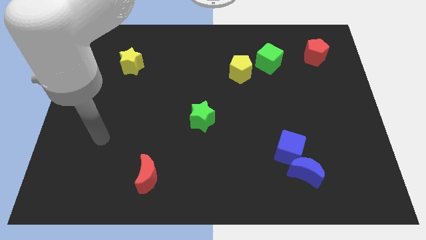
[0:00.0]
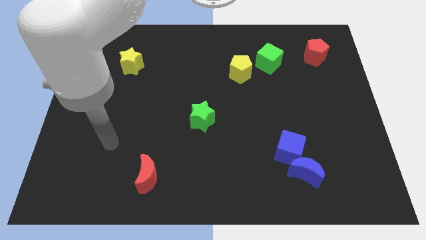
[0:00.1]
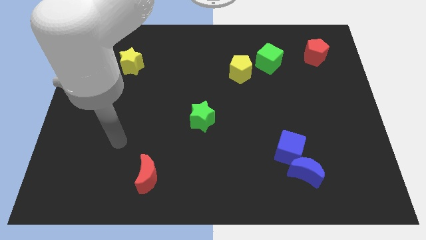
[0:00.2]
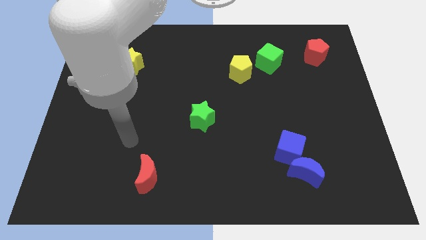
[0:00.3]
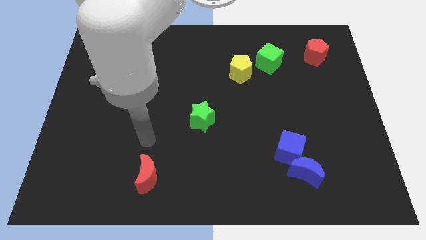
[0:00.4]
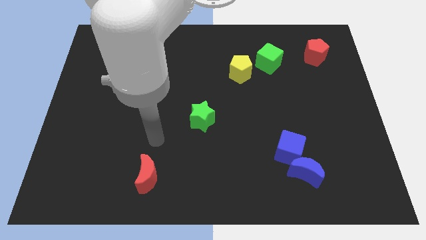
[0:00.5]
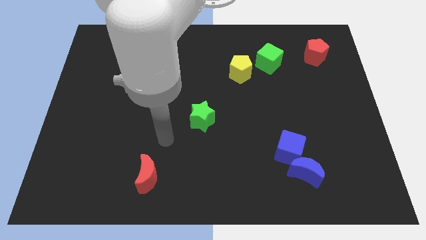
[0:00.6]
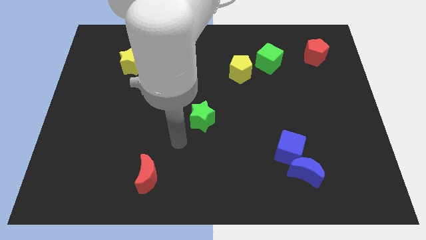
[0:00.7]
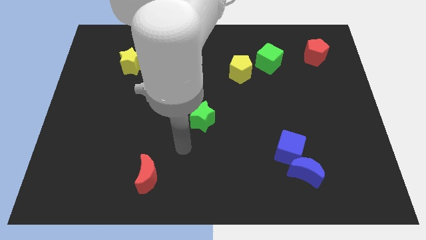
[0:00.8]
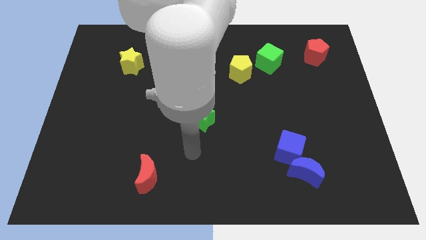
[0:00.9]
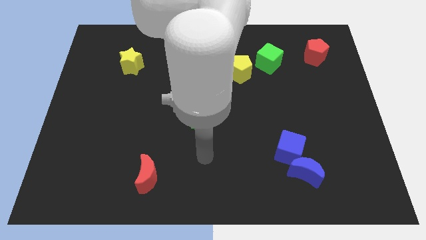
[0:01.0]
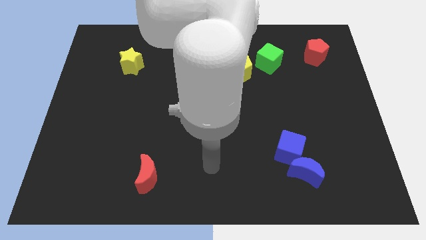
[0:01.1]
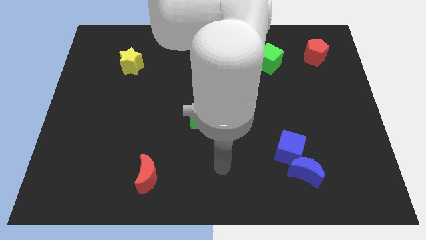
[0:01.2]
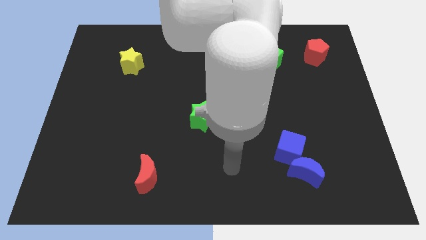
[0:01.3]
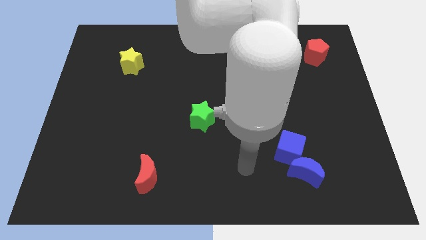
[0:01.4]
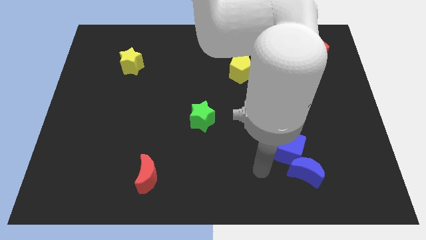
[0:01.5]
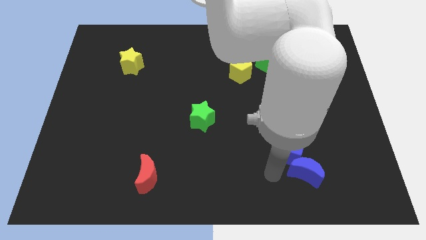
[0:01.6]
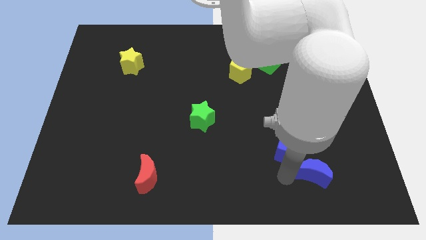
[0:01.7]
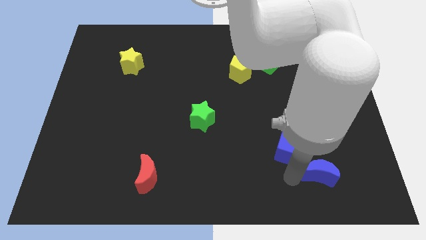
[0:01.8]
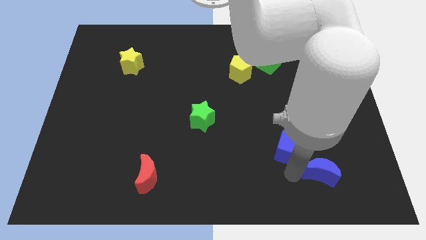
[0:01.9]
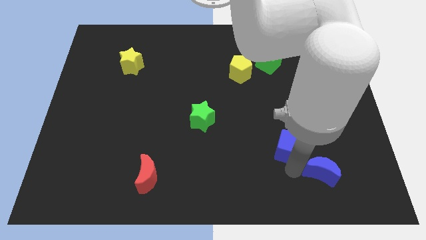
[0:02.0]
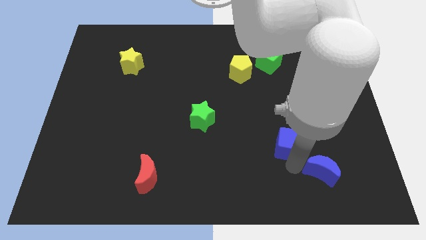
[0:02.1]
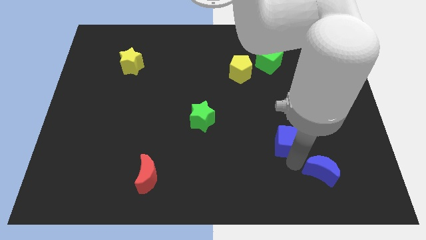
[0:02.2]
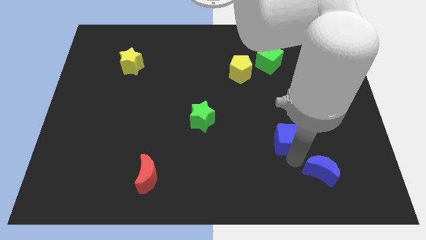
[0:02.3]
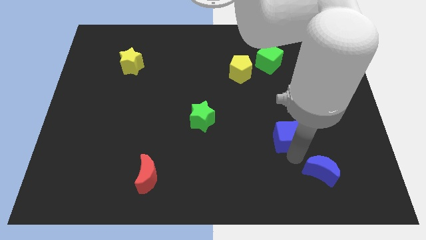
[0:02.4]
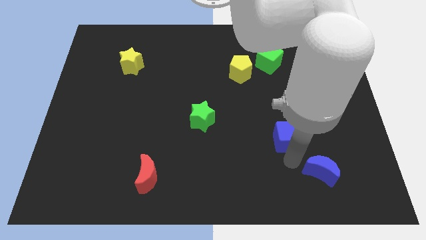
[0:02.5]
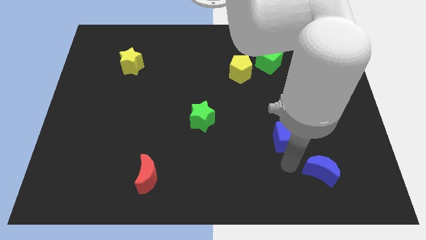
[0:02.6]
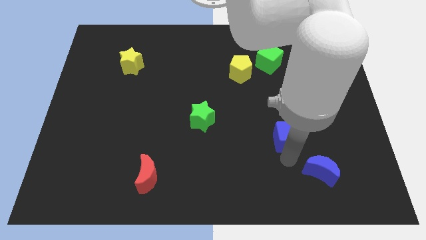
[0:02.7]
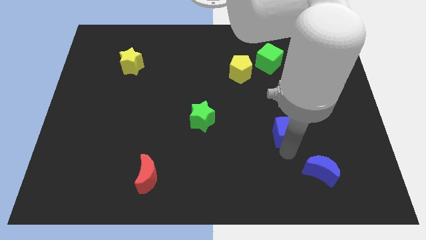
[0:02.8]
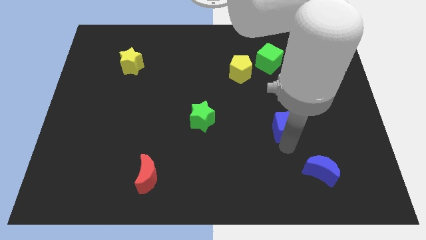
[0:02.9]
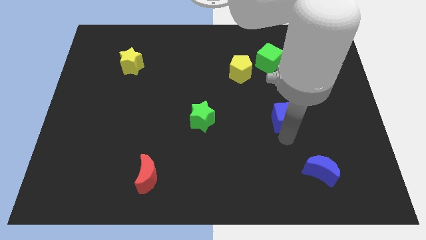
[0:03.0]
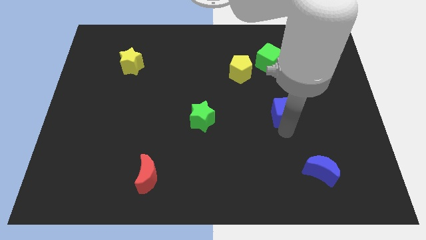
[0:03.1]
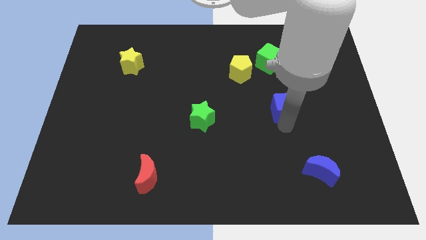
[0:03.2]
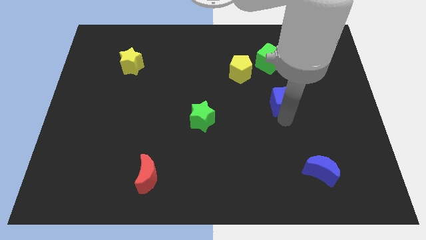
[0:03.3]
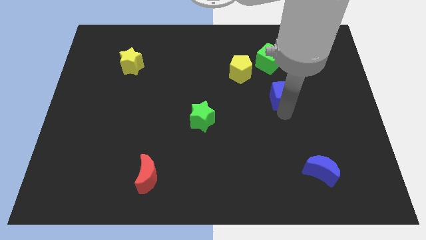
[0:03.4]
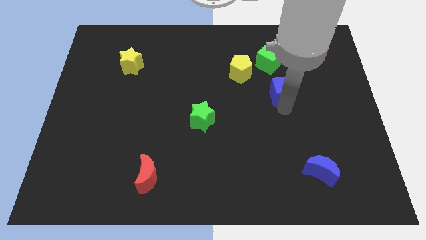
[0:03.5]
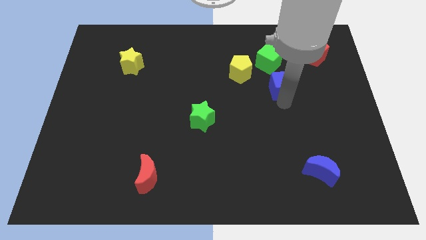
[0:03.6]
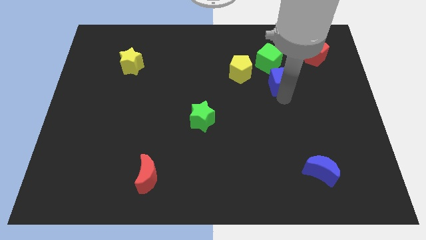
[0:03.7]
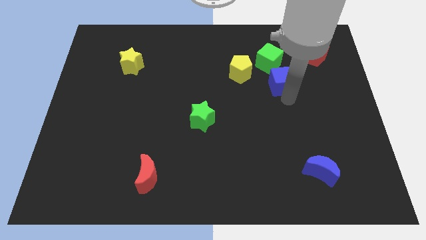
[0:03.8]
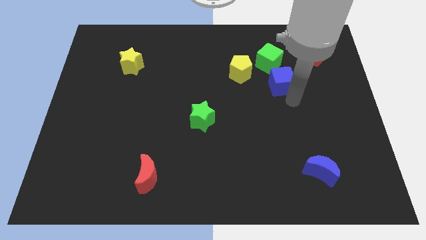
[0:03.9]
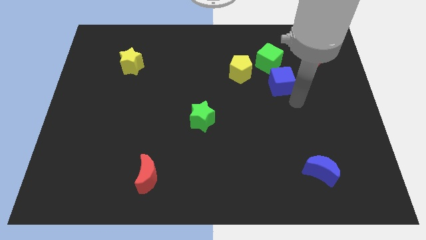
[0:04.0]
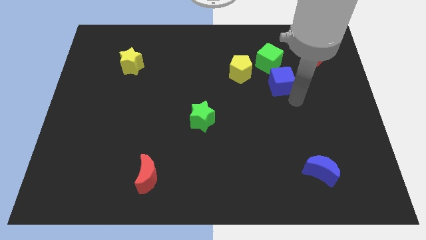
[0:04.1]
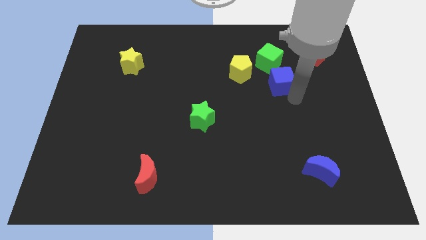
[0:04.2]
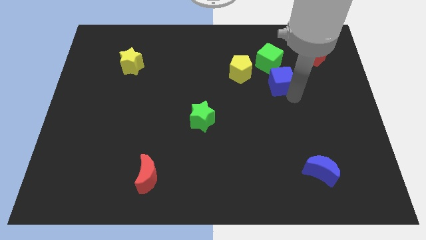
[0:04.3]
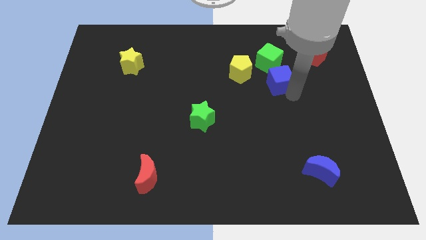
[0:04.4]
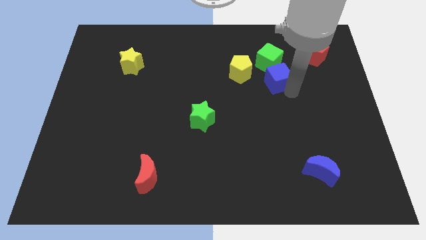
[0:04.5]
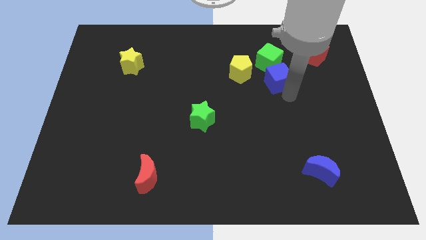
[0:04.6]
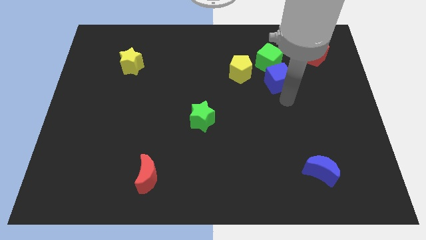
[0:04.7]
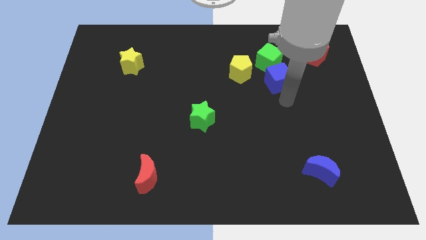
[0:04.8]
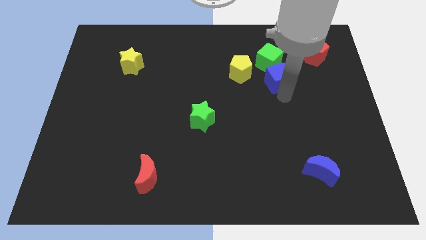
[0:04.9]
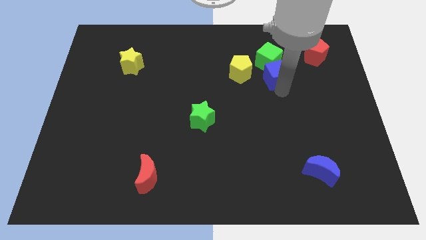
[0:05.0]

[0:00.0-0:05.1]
push the blue cube to the green cube

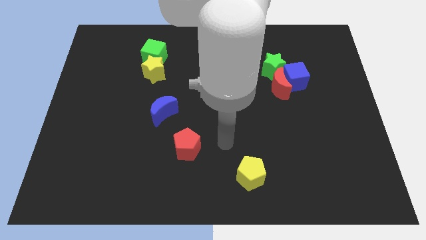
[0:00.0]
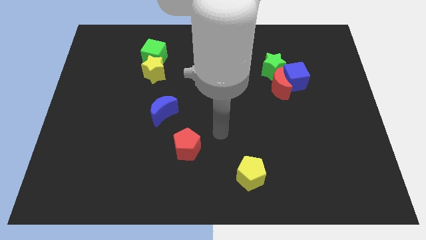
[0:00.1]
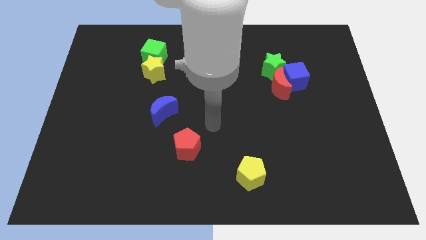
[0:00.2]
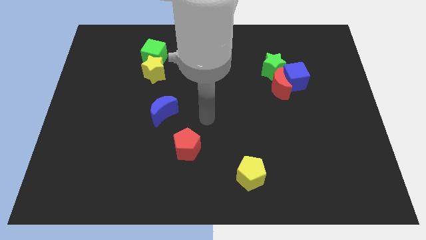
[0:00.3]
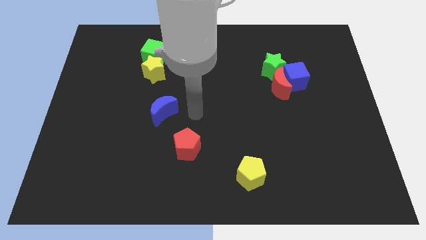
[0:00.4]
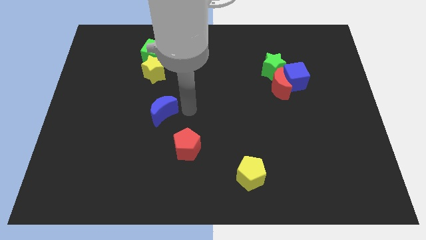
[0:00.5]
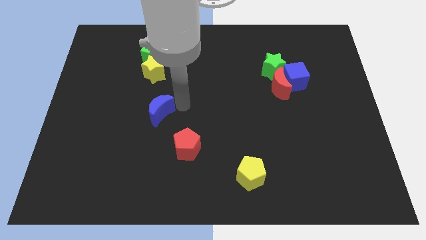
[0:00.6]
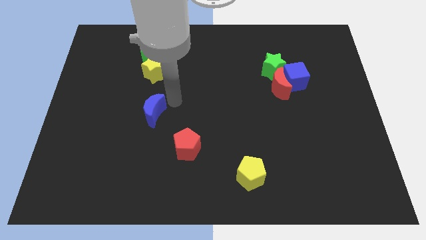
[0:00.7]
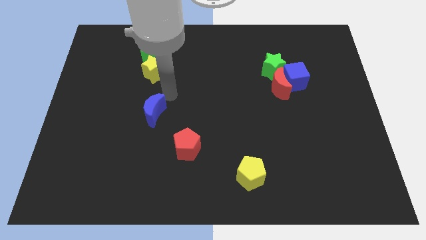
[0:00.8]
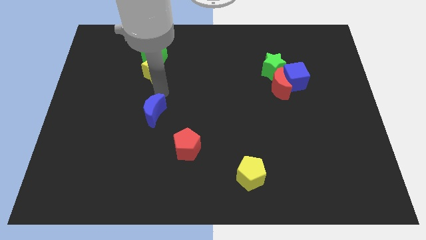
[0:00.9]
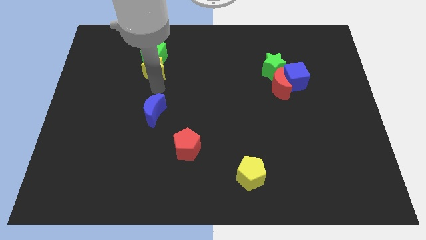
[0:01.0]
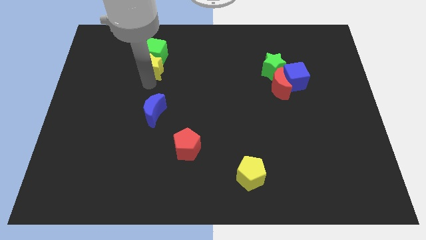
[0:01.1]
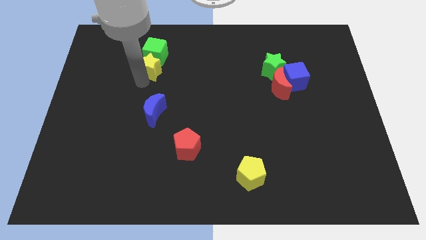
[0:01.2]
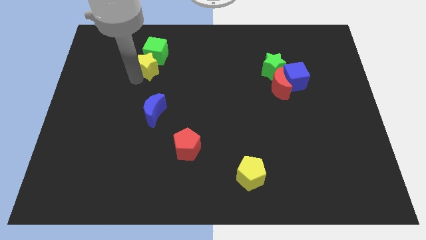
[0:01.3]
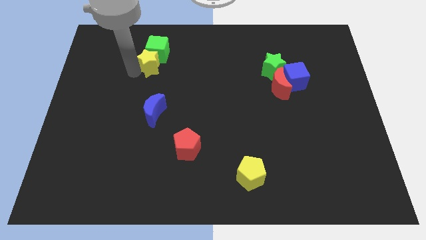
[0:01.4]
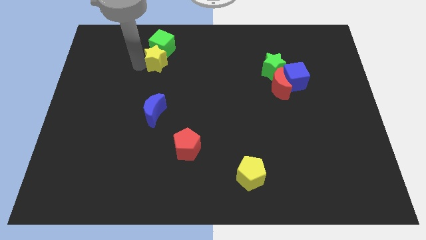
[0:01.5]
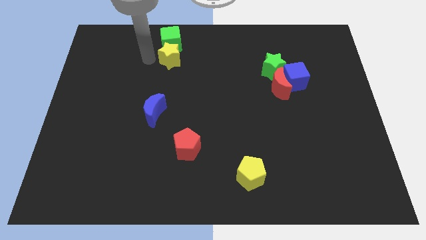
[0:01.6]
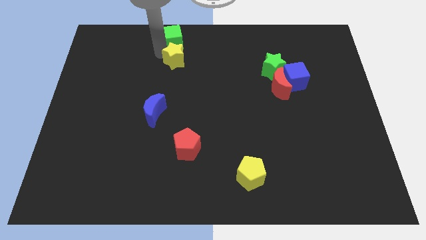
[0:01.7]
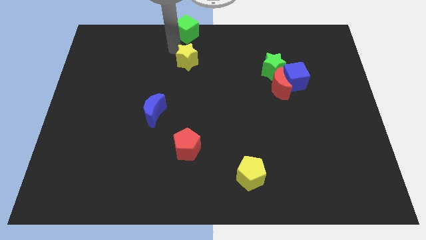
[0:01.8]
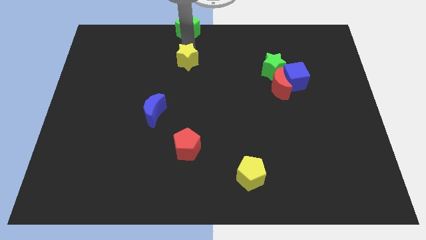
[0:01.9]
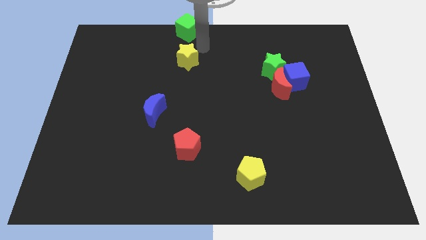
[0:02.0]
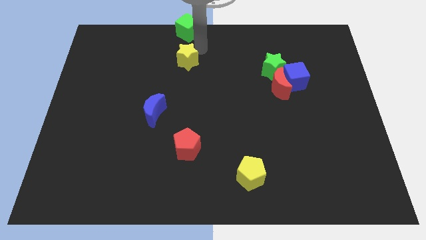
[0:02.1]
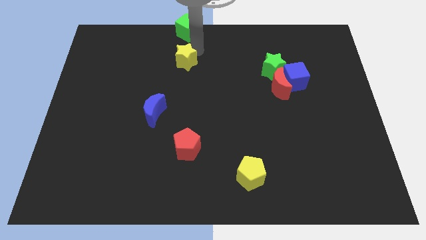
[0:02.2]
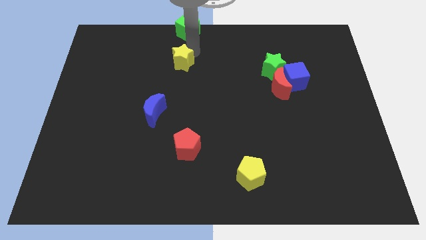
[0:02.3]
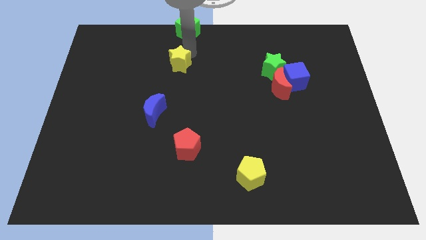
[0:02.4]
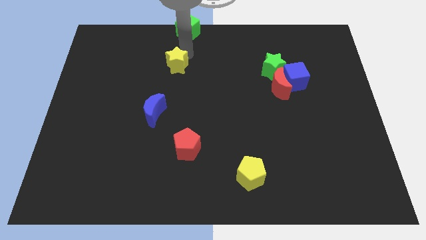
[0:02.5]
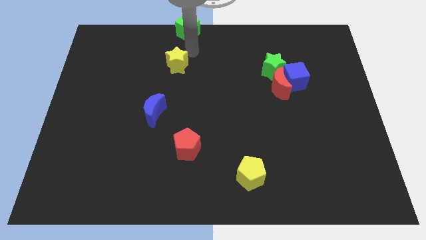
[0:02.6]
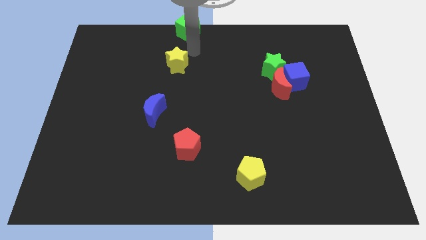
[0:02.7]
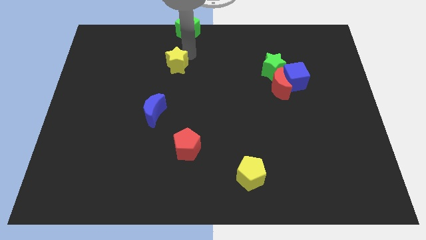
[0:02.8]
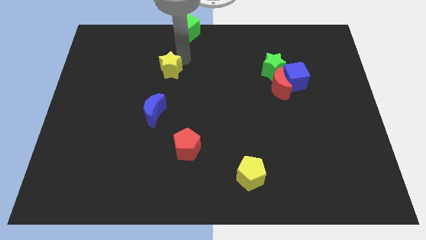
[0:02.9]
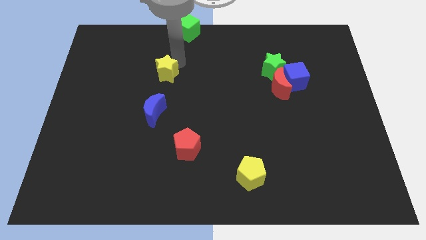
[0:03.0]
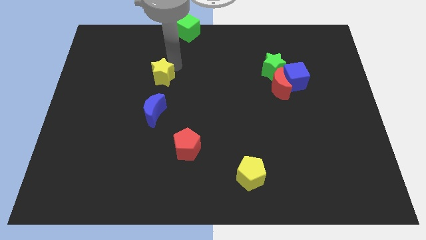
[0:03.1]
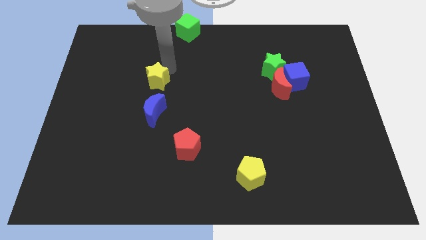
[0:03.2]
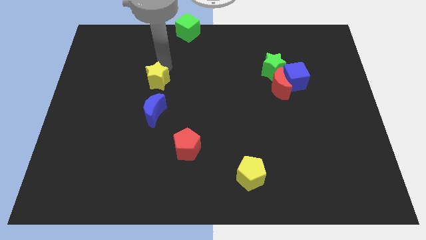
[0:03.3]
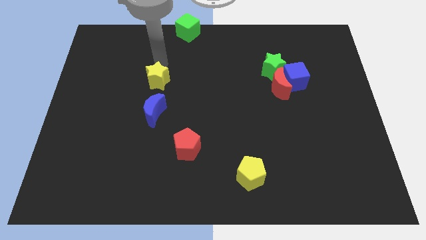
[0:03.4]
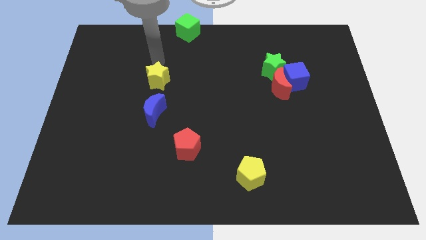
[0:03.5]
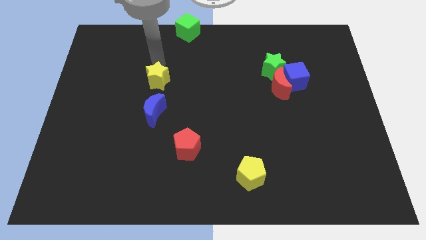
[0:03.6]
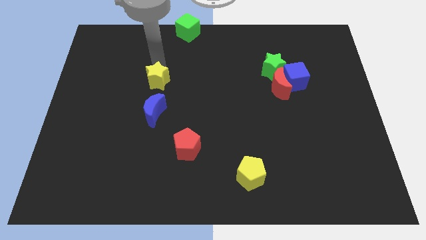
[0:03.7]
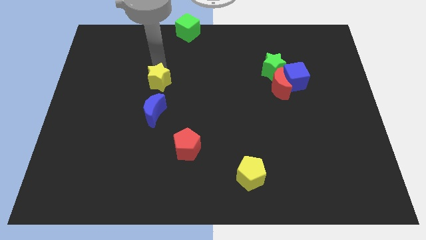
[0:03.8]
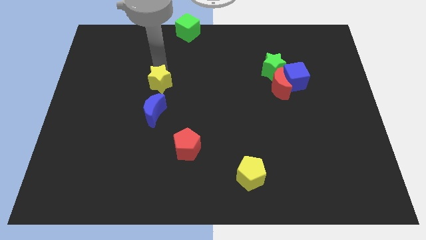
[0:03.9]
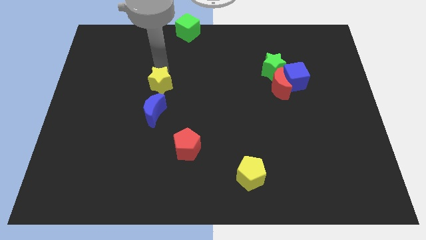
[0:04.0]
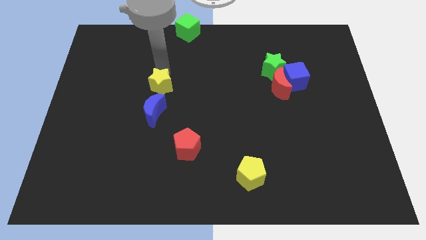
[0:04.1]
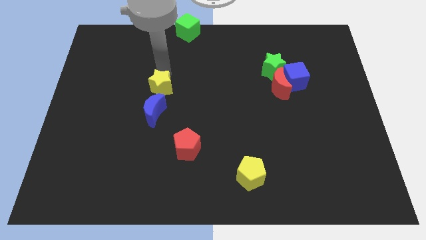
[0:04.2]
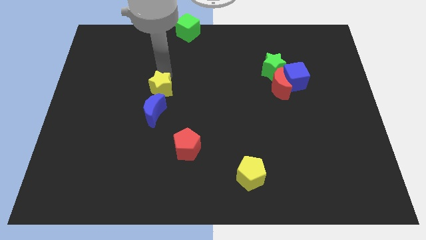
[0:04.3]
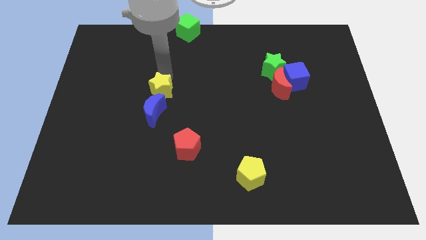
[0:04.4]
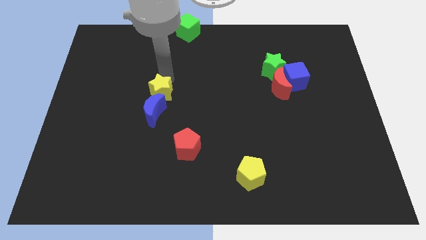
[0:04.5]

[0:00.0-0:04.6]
move the yellow star next to the blue moon
